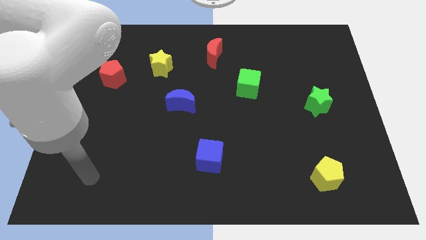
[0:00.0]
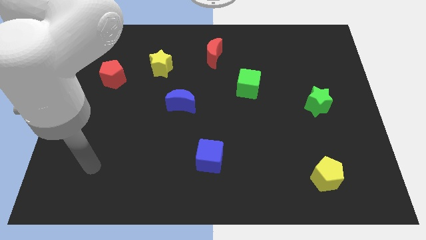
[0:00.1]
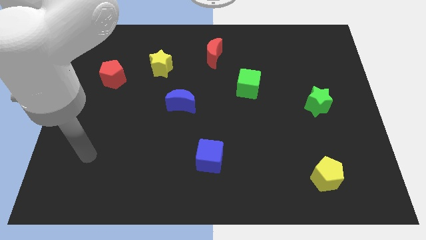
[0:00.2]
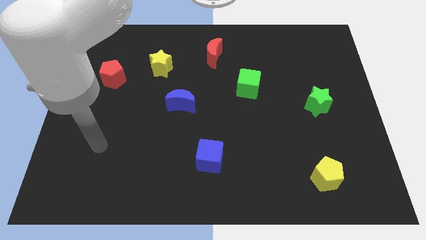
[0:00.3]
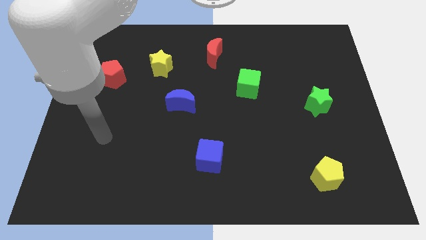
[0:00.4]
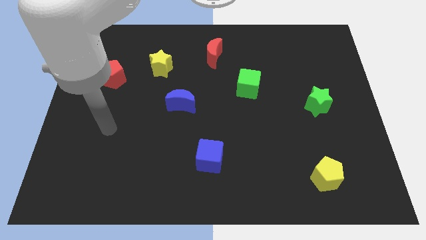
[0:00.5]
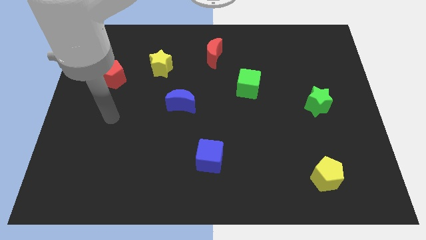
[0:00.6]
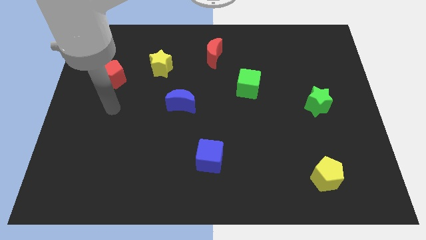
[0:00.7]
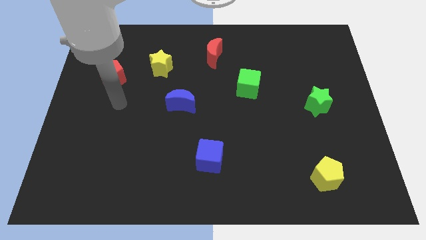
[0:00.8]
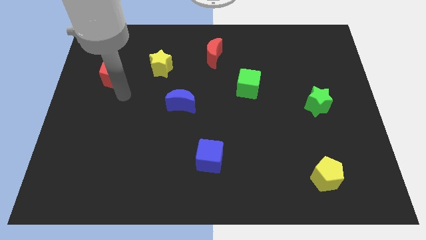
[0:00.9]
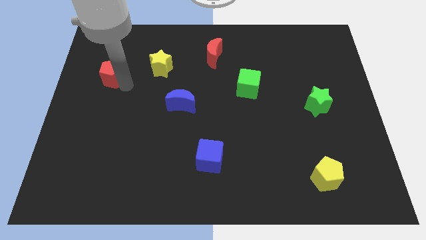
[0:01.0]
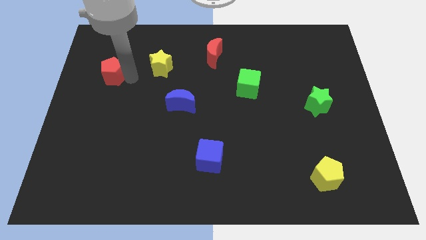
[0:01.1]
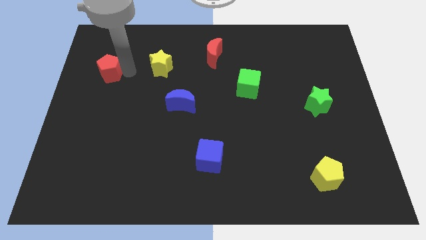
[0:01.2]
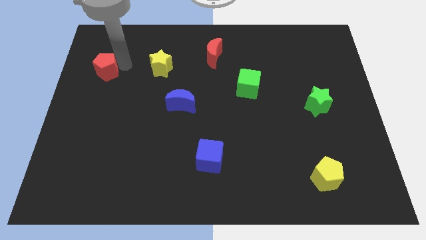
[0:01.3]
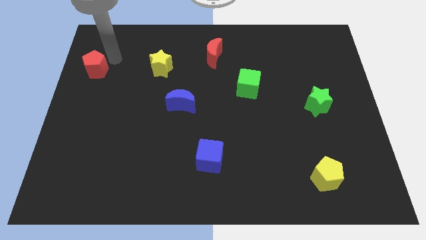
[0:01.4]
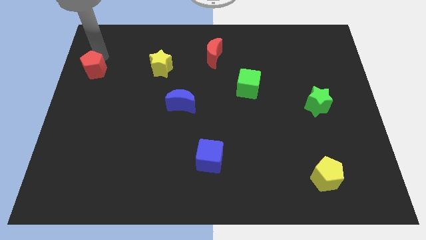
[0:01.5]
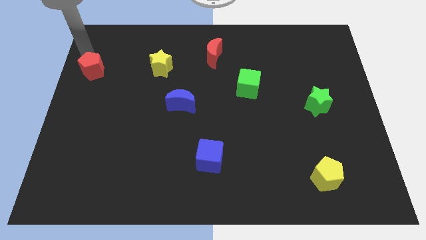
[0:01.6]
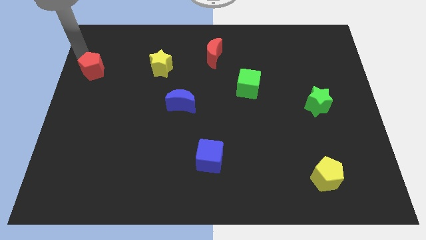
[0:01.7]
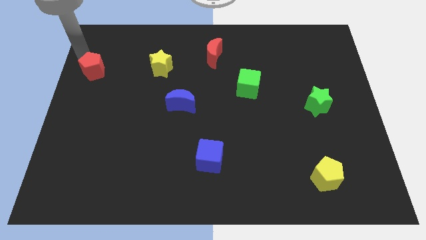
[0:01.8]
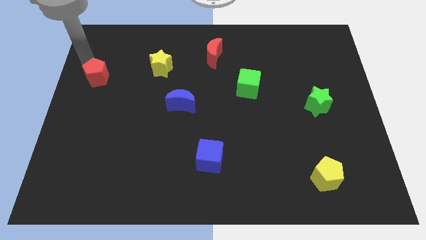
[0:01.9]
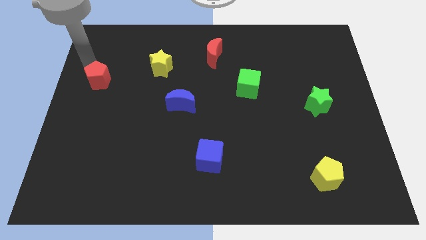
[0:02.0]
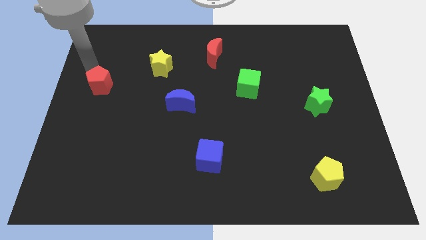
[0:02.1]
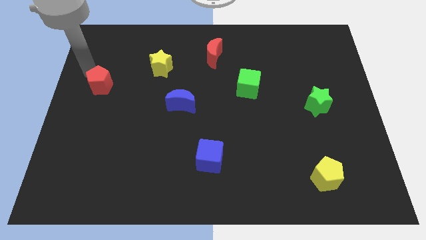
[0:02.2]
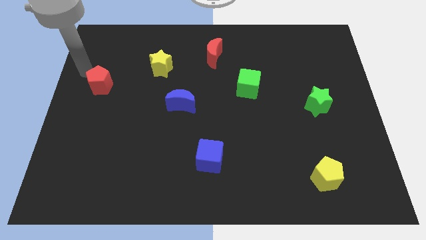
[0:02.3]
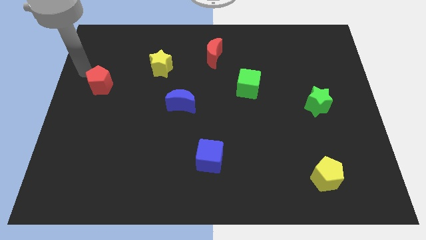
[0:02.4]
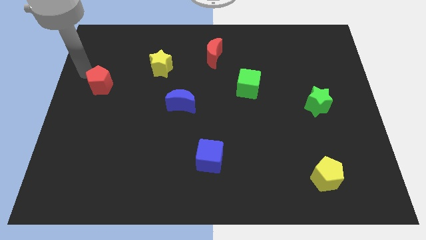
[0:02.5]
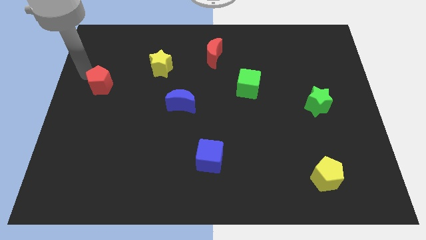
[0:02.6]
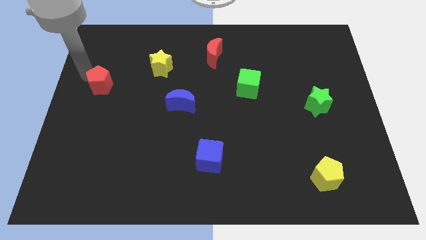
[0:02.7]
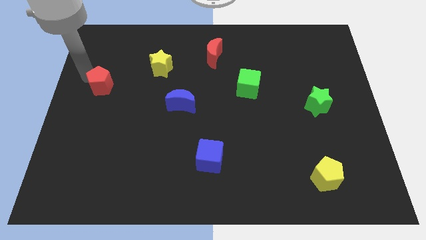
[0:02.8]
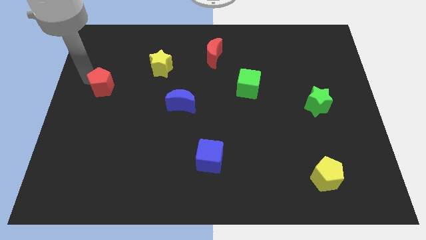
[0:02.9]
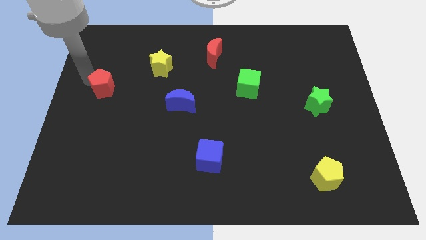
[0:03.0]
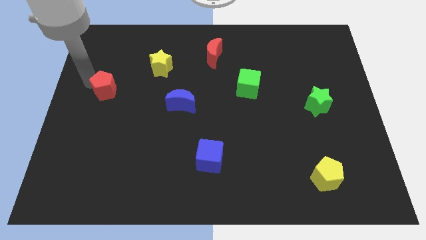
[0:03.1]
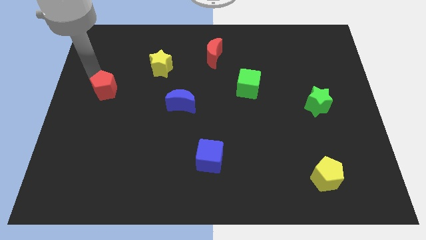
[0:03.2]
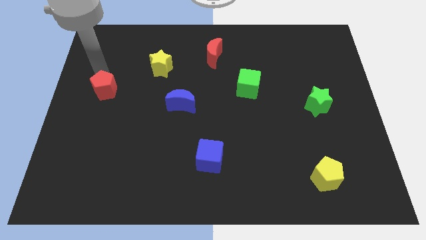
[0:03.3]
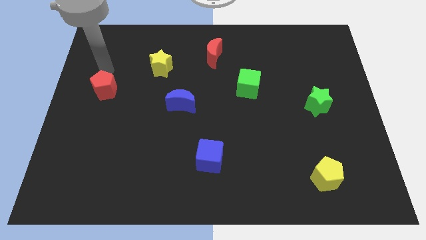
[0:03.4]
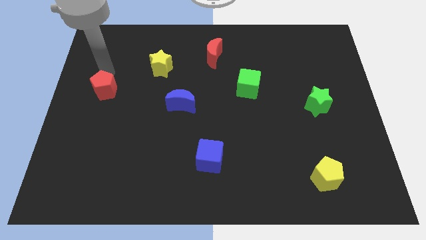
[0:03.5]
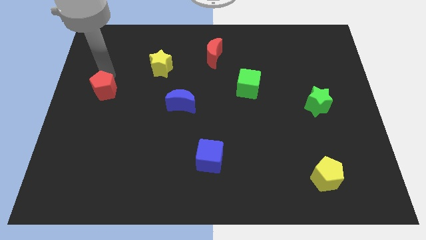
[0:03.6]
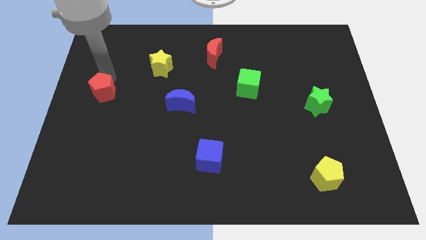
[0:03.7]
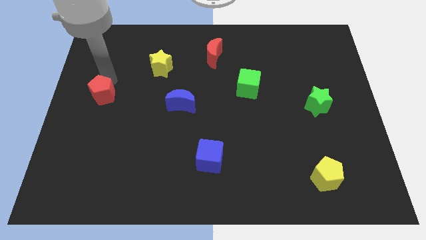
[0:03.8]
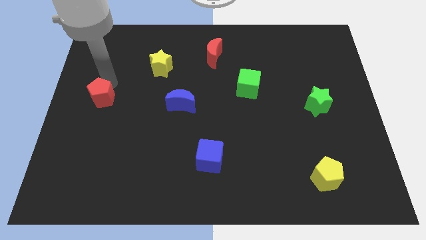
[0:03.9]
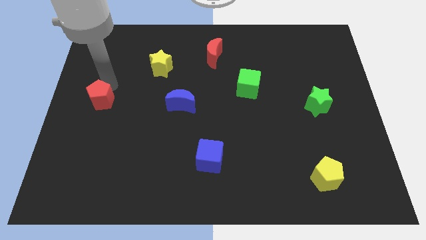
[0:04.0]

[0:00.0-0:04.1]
push the red pentagon down slightly

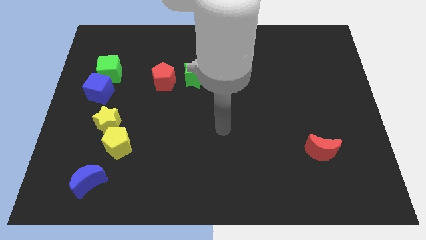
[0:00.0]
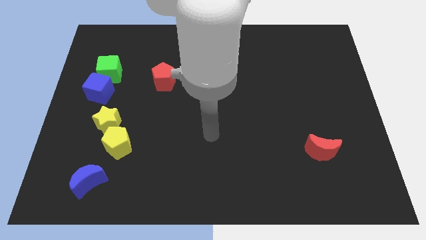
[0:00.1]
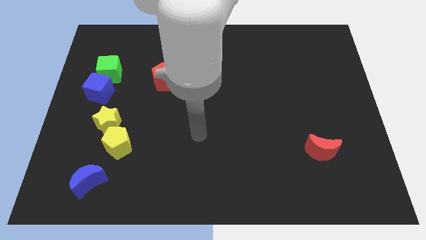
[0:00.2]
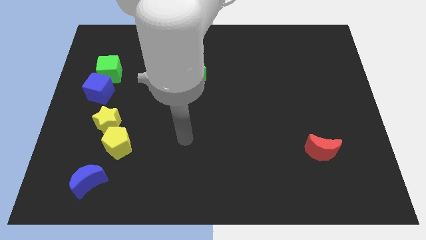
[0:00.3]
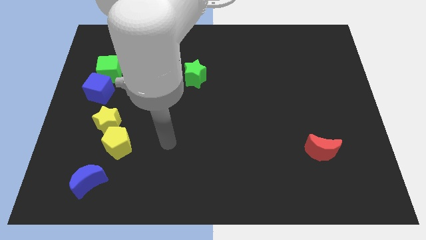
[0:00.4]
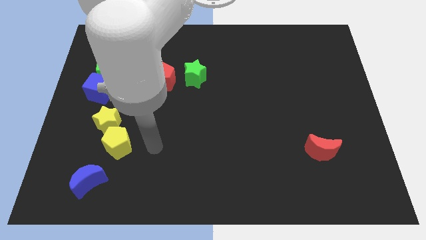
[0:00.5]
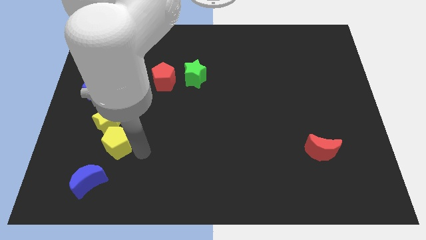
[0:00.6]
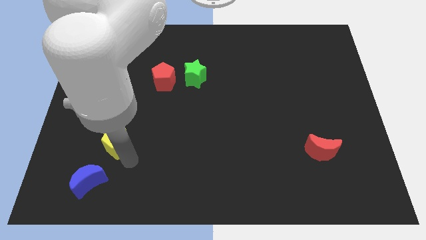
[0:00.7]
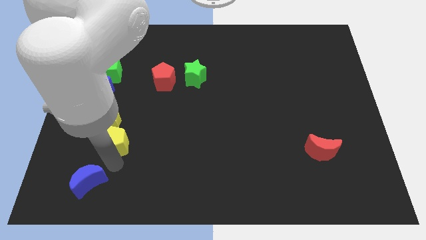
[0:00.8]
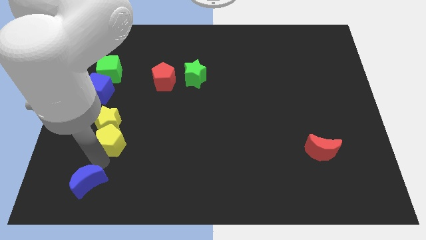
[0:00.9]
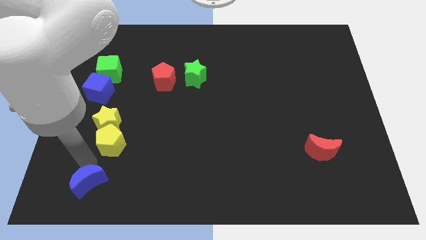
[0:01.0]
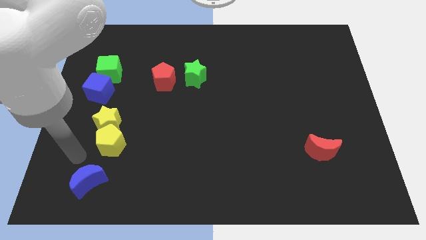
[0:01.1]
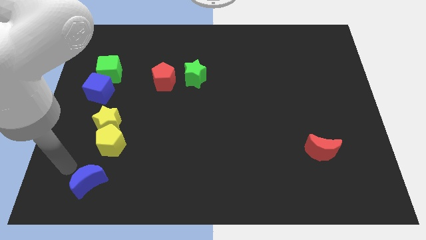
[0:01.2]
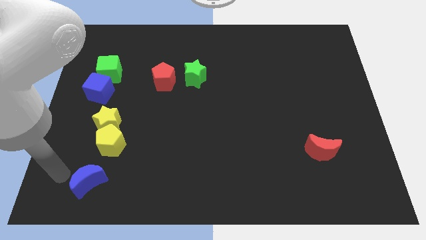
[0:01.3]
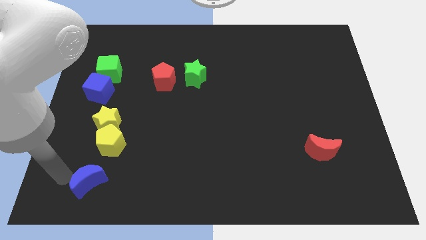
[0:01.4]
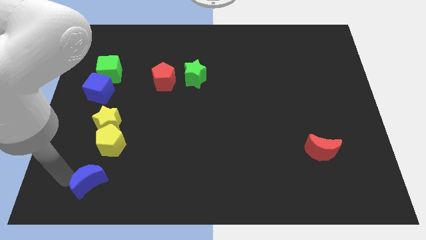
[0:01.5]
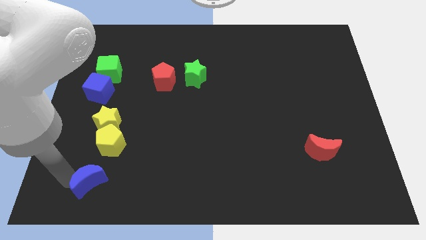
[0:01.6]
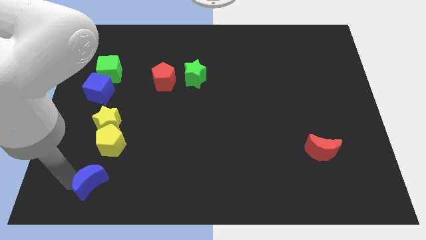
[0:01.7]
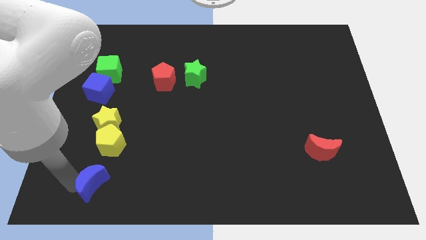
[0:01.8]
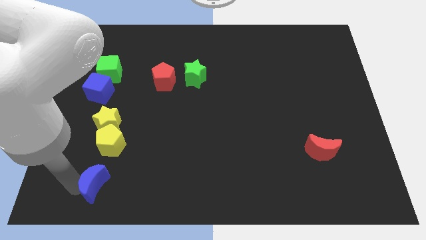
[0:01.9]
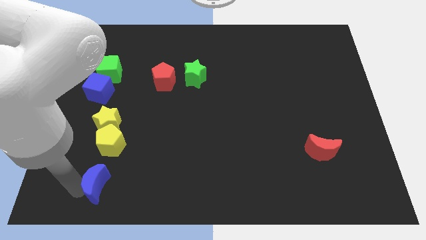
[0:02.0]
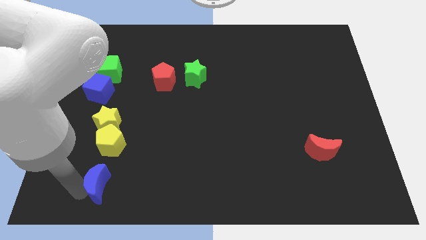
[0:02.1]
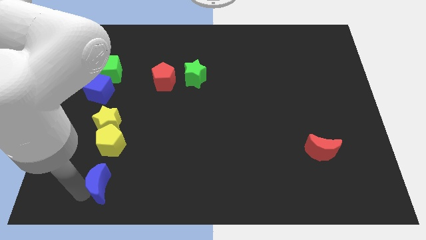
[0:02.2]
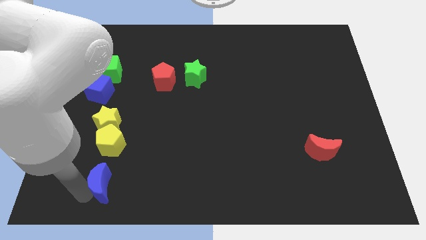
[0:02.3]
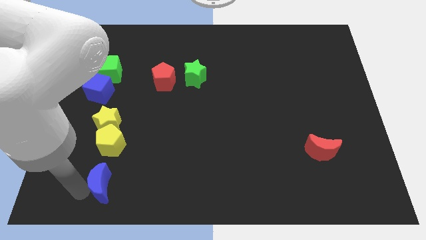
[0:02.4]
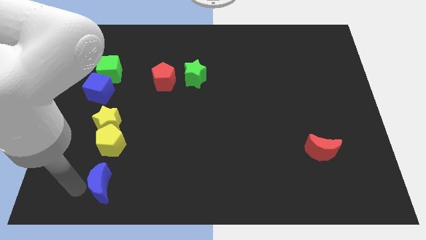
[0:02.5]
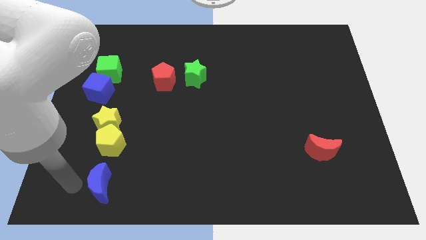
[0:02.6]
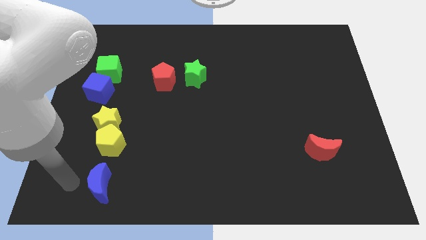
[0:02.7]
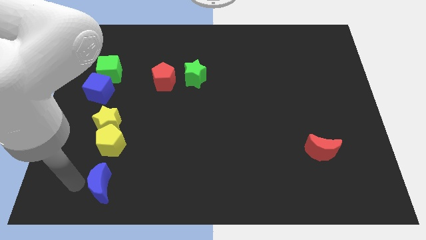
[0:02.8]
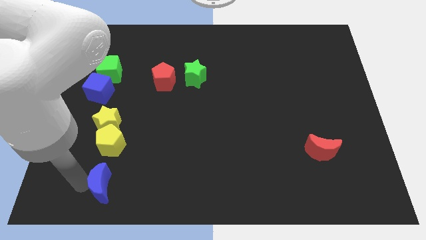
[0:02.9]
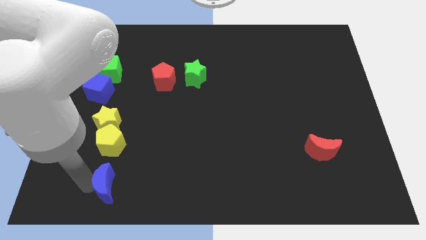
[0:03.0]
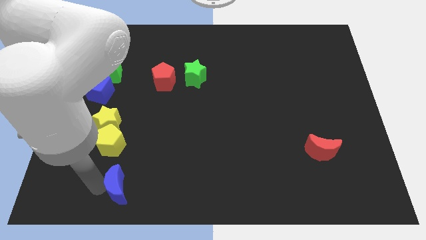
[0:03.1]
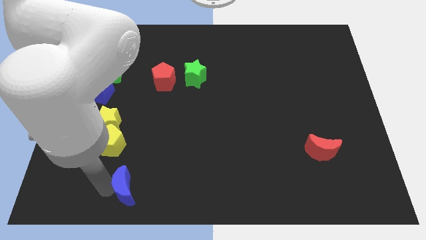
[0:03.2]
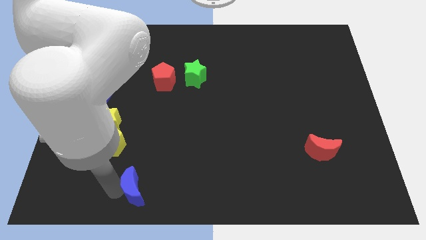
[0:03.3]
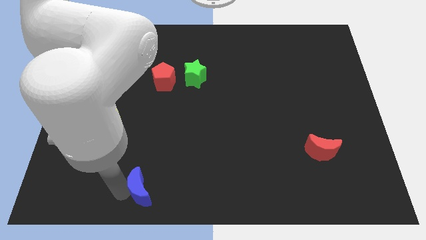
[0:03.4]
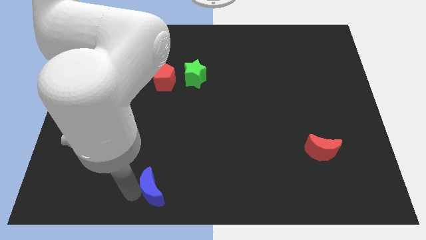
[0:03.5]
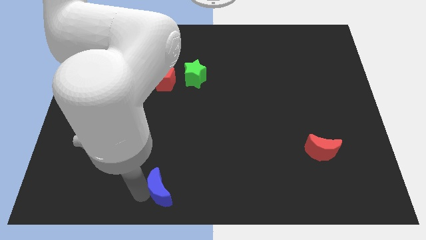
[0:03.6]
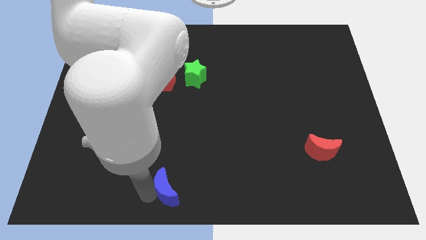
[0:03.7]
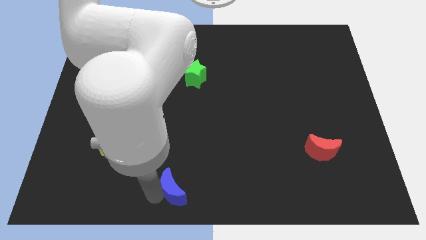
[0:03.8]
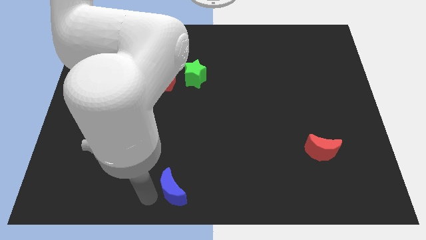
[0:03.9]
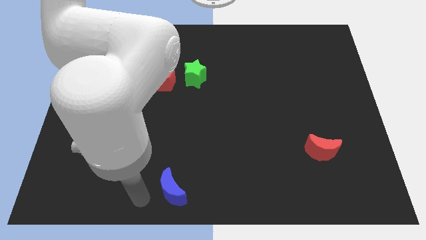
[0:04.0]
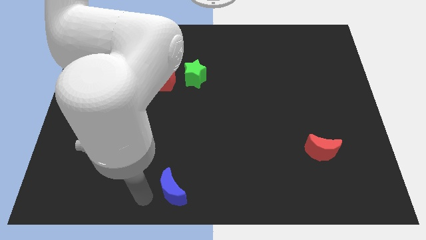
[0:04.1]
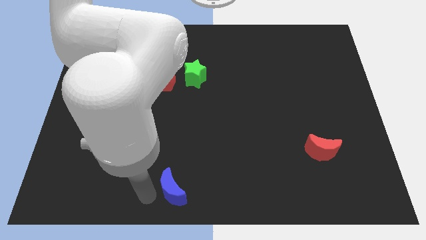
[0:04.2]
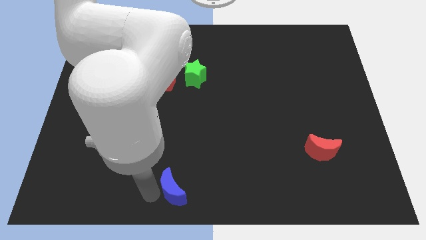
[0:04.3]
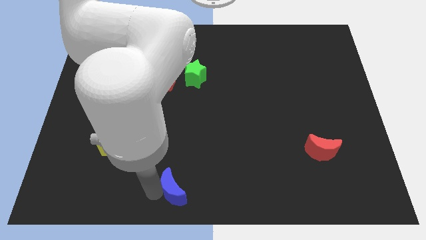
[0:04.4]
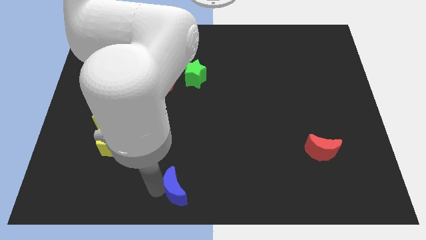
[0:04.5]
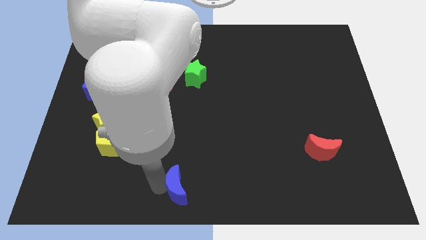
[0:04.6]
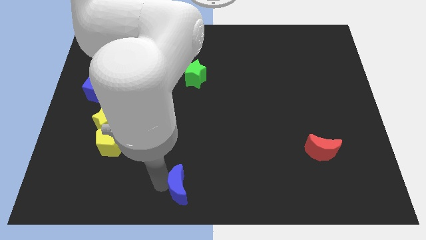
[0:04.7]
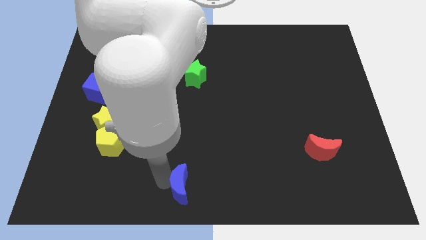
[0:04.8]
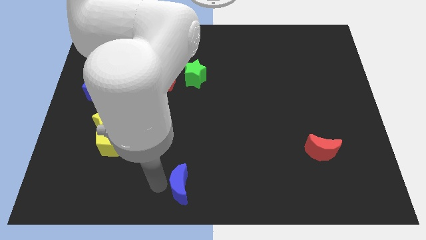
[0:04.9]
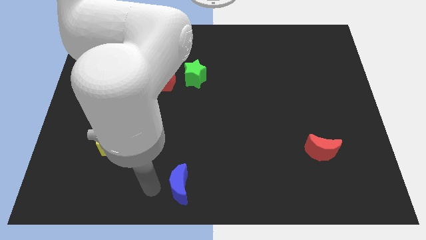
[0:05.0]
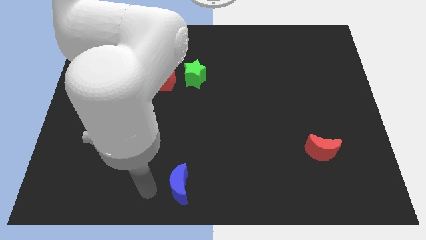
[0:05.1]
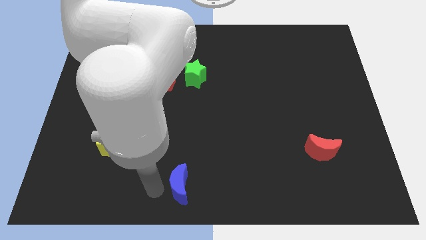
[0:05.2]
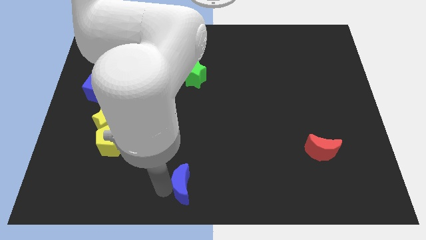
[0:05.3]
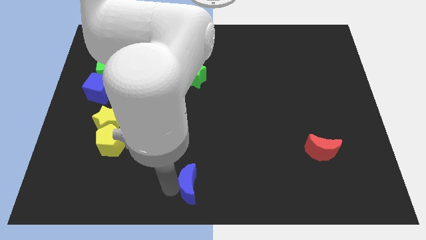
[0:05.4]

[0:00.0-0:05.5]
slide the blue moon to the right
